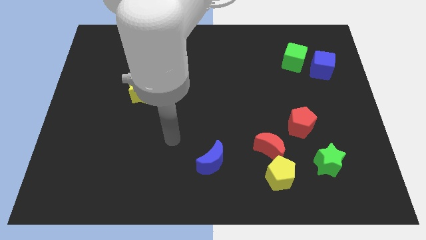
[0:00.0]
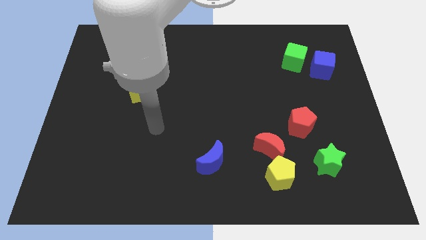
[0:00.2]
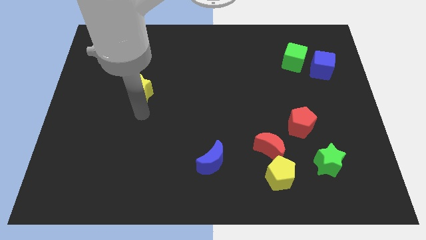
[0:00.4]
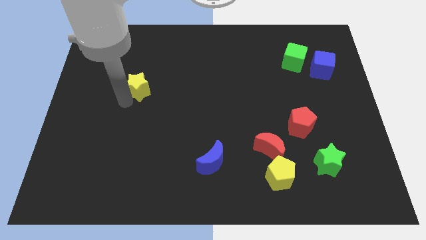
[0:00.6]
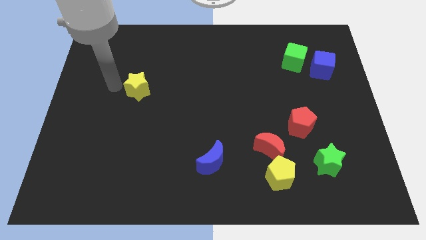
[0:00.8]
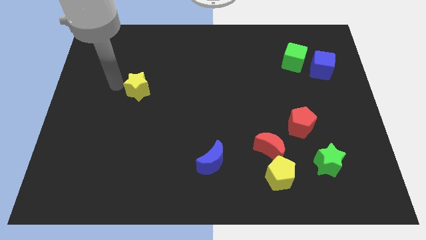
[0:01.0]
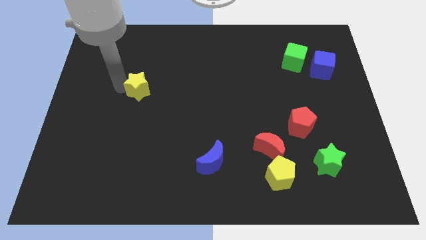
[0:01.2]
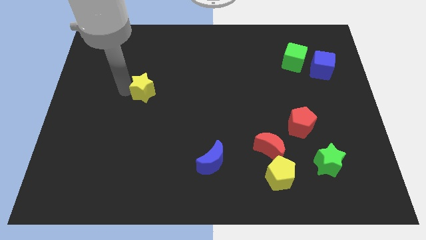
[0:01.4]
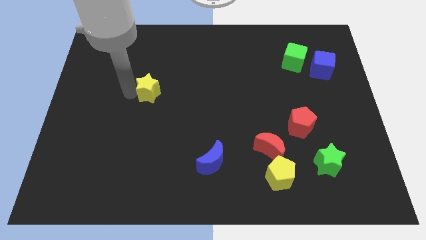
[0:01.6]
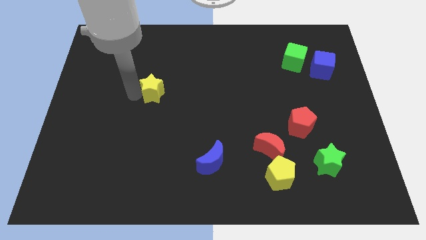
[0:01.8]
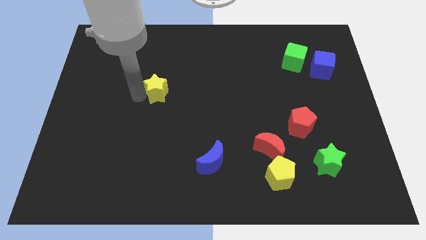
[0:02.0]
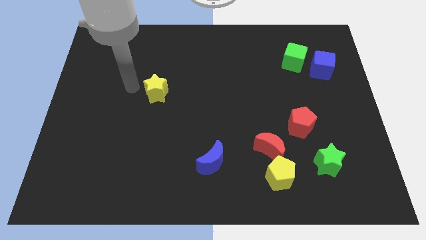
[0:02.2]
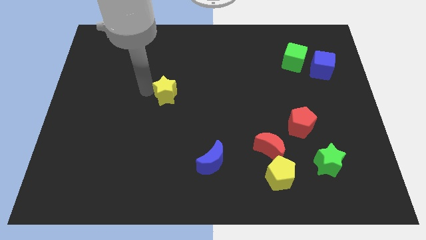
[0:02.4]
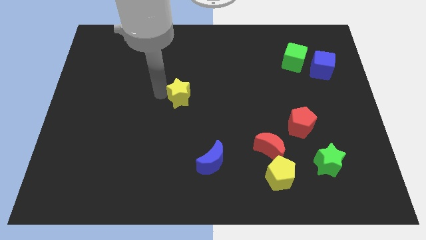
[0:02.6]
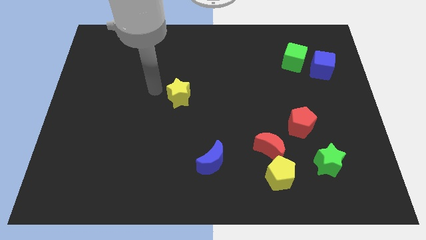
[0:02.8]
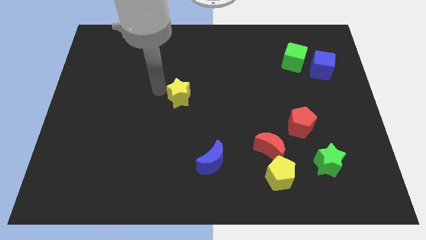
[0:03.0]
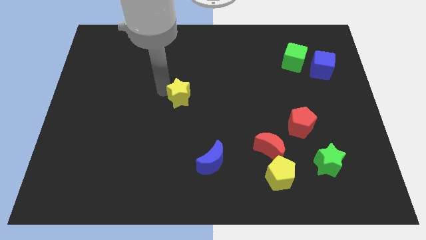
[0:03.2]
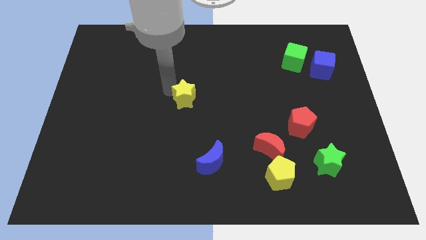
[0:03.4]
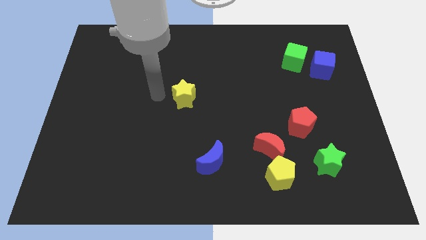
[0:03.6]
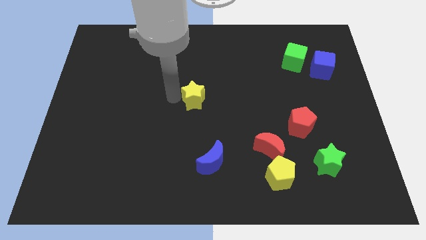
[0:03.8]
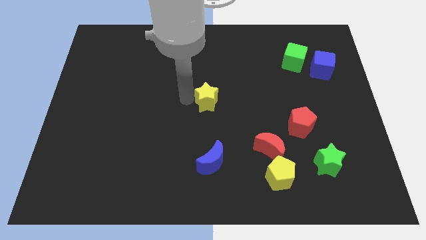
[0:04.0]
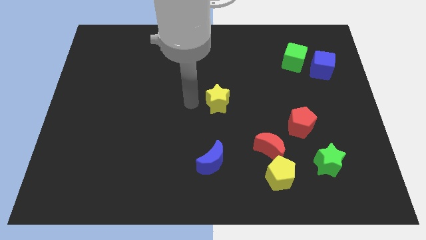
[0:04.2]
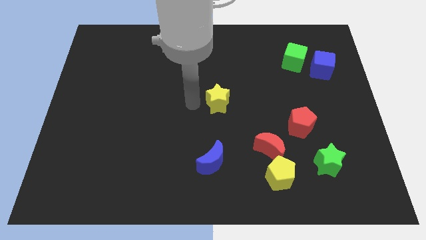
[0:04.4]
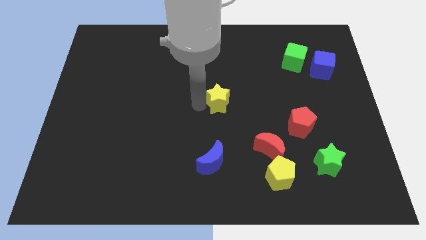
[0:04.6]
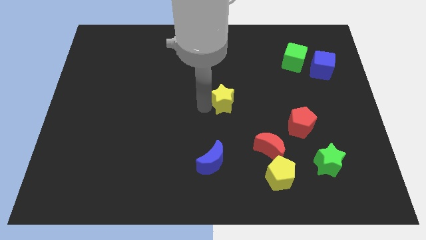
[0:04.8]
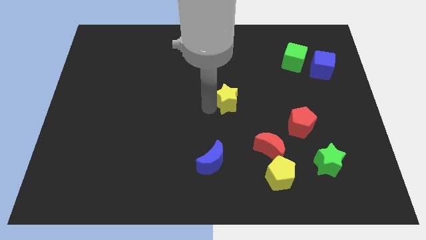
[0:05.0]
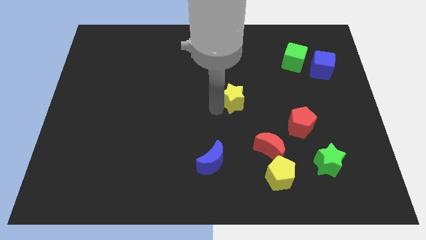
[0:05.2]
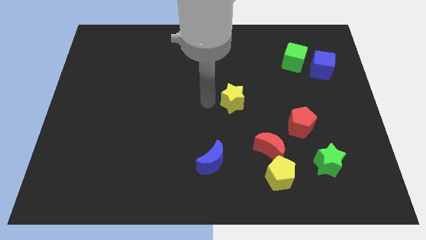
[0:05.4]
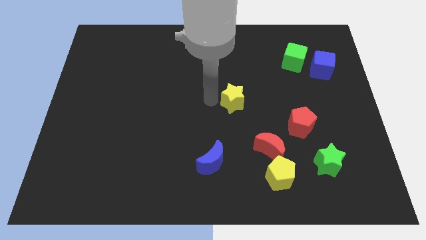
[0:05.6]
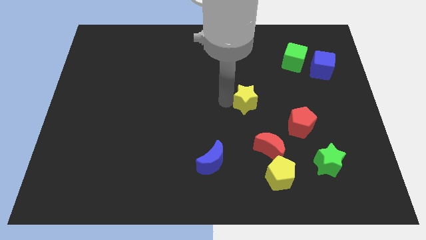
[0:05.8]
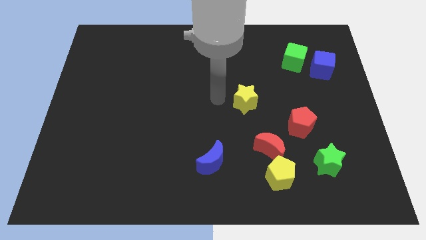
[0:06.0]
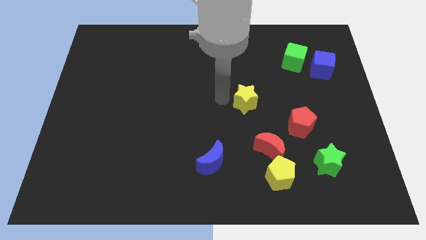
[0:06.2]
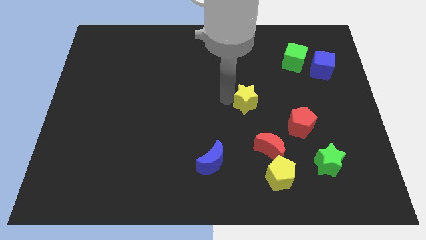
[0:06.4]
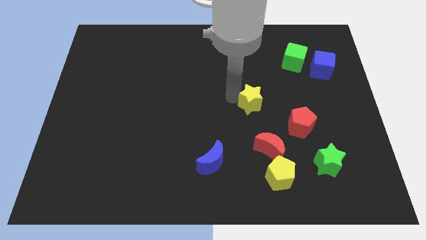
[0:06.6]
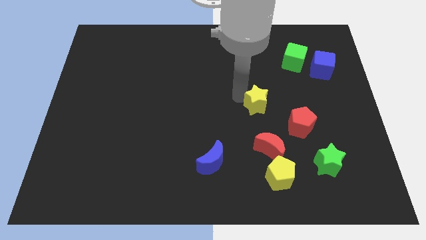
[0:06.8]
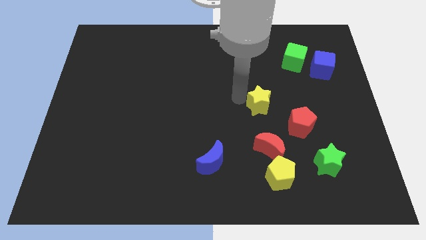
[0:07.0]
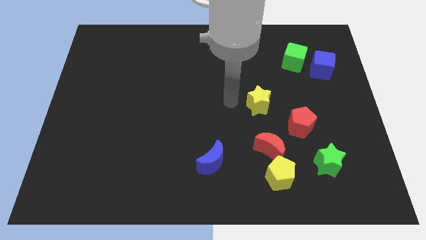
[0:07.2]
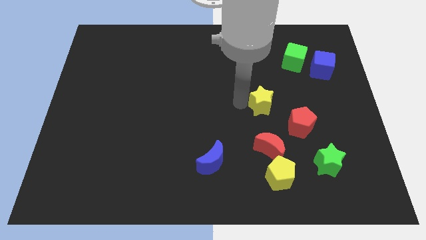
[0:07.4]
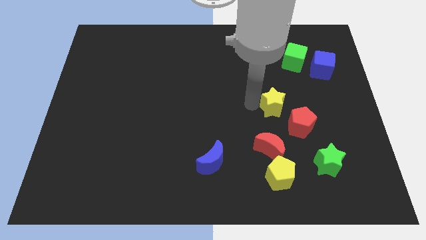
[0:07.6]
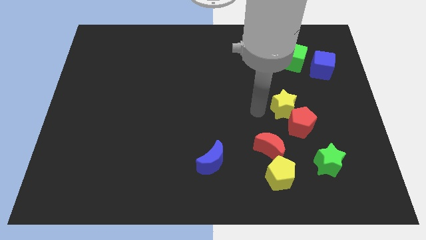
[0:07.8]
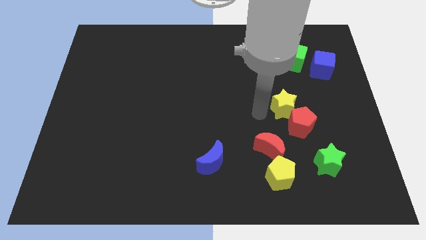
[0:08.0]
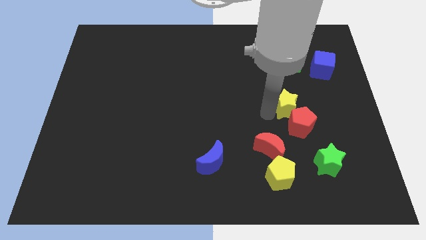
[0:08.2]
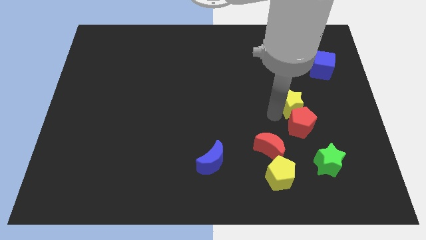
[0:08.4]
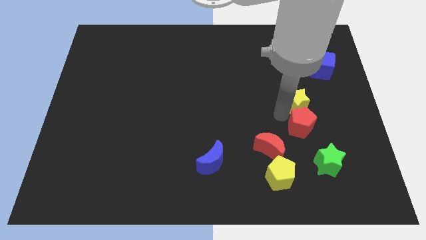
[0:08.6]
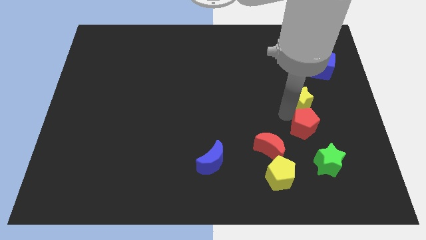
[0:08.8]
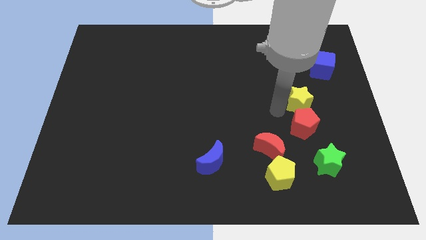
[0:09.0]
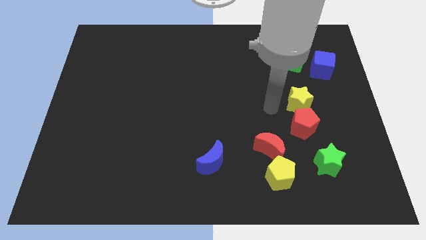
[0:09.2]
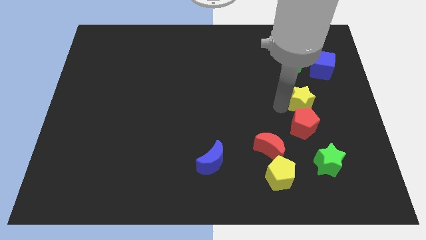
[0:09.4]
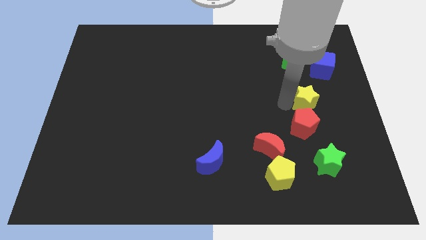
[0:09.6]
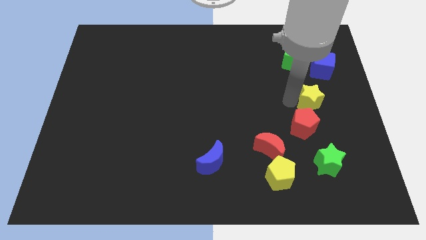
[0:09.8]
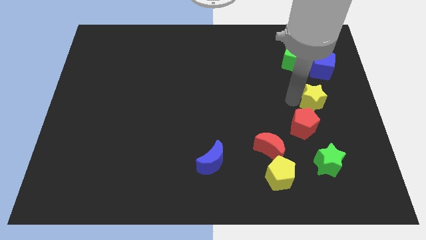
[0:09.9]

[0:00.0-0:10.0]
push the yellow star to the bottom side of the blue cube

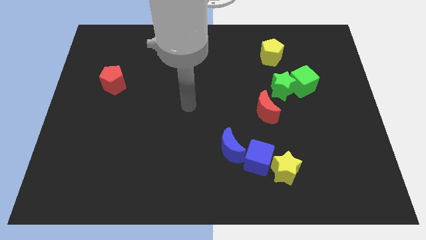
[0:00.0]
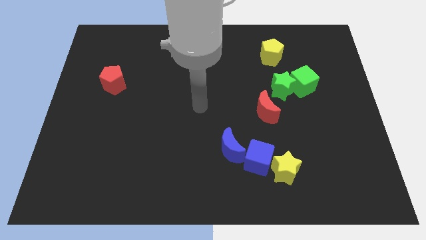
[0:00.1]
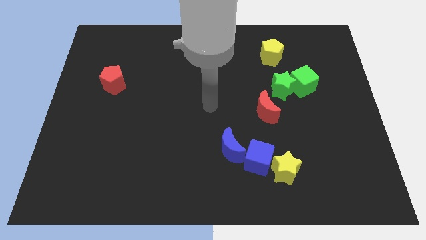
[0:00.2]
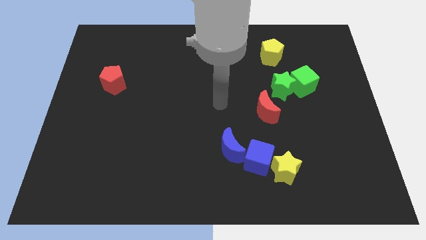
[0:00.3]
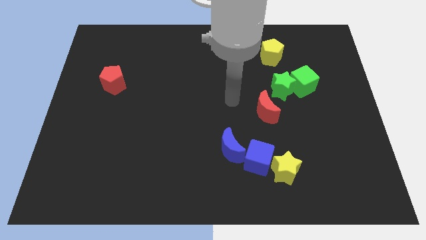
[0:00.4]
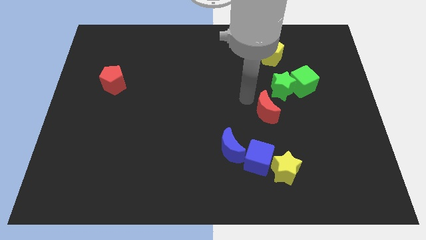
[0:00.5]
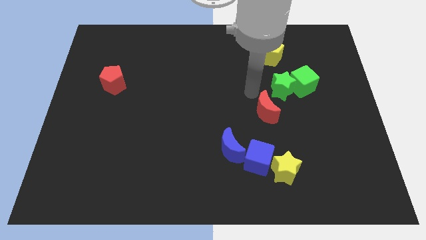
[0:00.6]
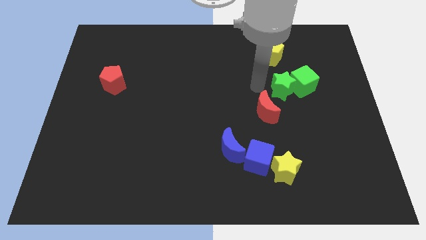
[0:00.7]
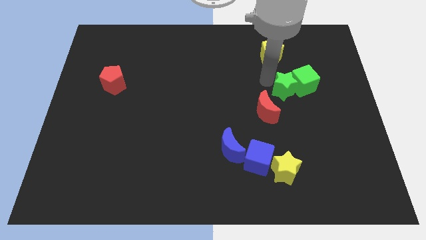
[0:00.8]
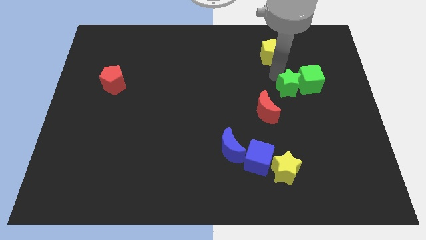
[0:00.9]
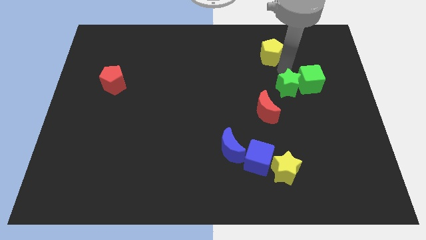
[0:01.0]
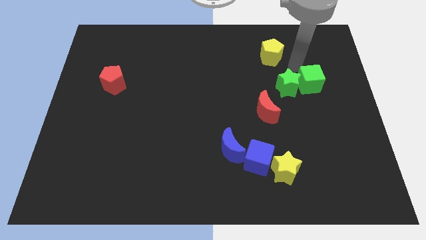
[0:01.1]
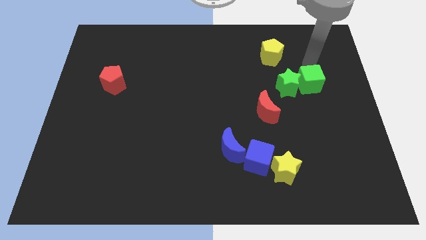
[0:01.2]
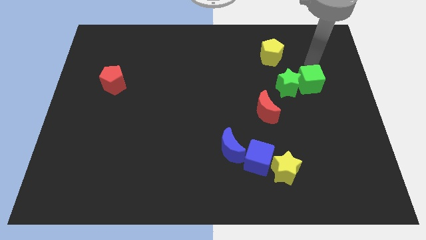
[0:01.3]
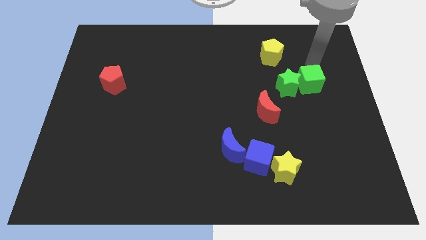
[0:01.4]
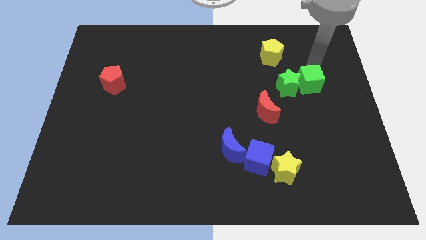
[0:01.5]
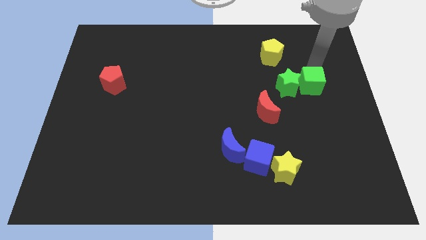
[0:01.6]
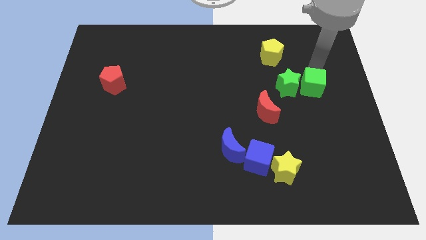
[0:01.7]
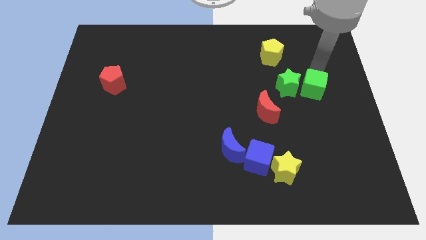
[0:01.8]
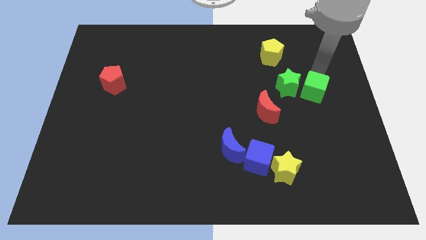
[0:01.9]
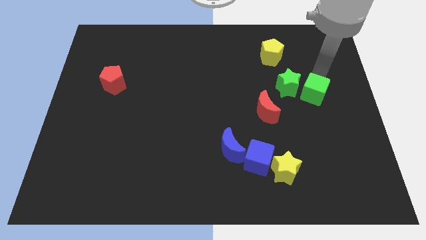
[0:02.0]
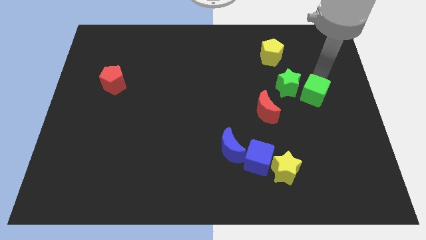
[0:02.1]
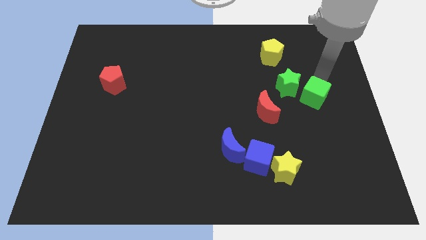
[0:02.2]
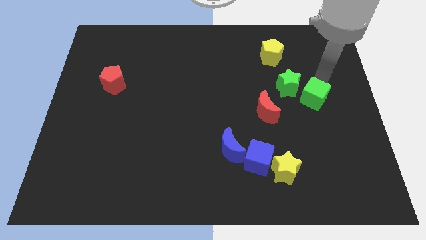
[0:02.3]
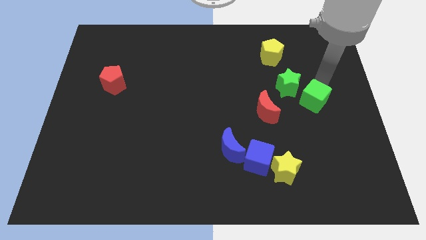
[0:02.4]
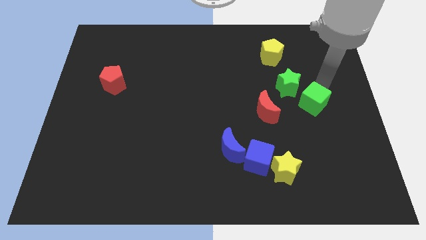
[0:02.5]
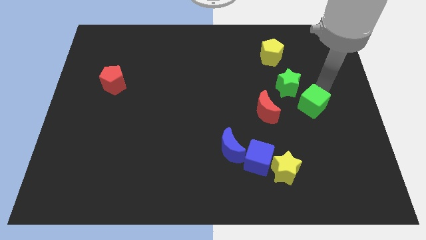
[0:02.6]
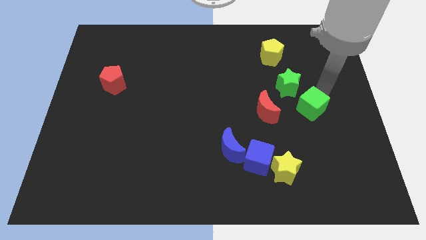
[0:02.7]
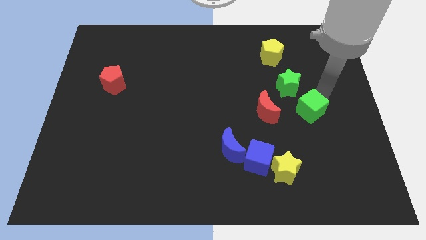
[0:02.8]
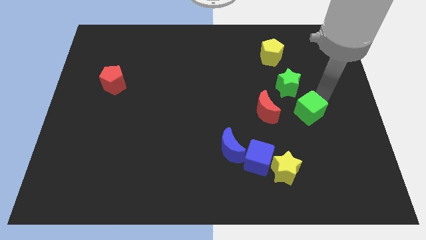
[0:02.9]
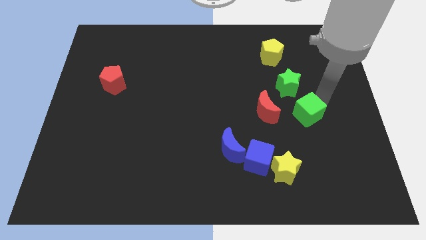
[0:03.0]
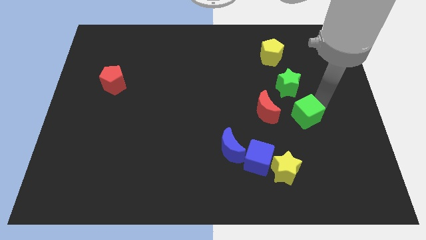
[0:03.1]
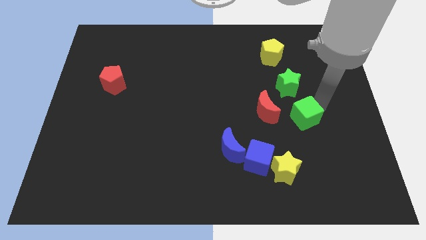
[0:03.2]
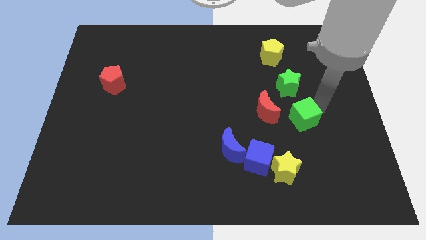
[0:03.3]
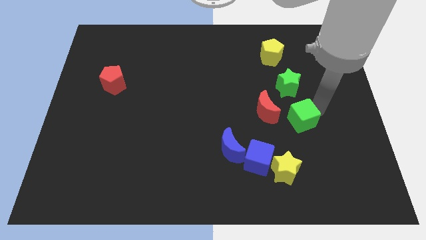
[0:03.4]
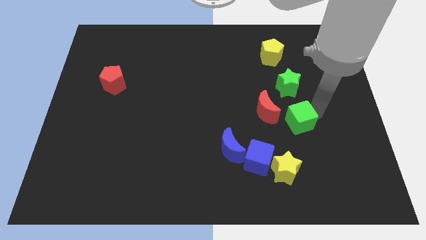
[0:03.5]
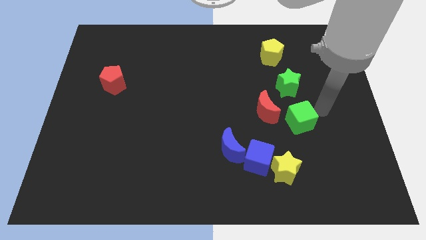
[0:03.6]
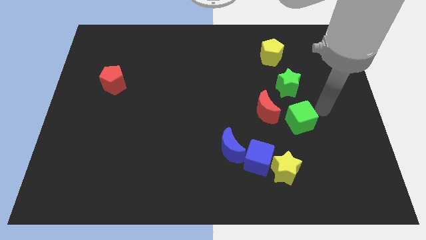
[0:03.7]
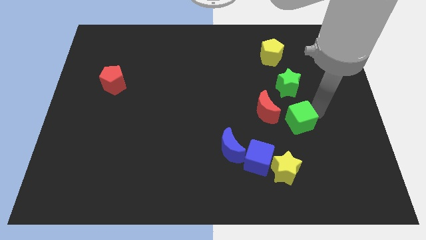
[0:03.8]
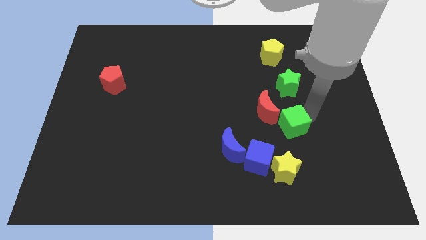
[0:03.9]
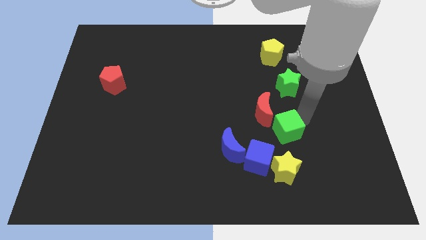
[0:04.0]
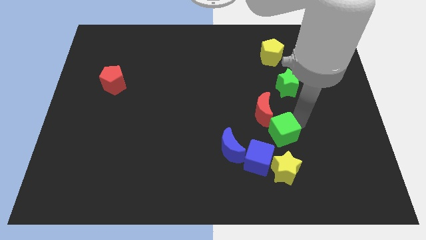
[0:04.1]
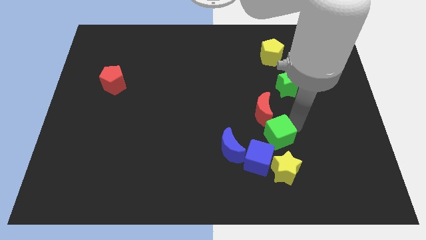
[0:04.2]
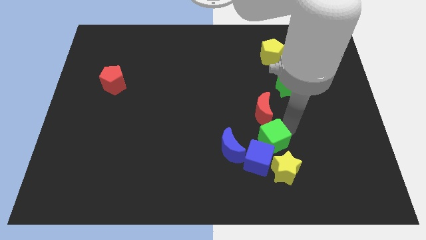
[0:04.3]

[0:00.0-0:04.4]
put the green cube to the top left side of the yellow star
